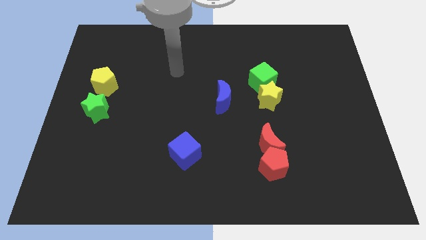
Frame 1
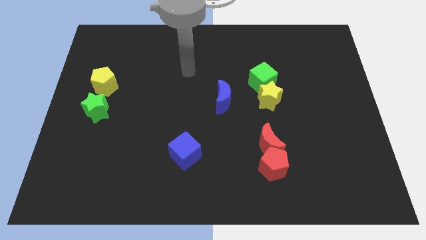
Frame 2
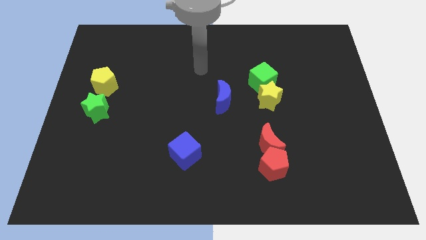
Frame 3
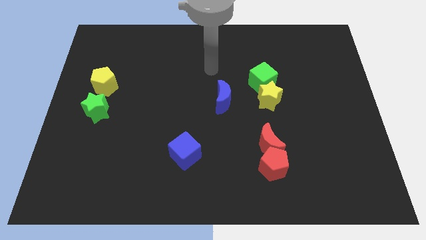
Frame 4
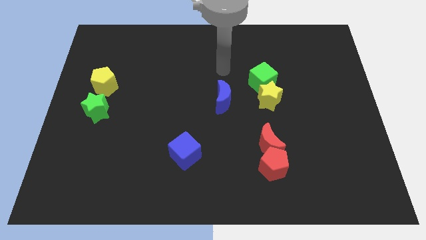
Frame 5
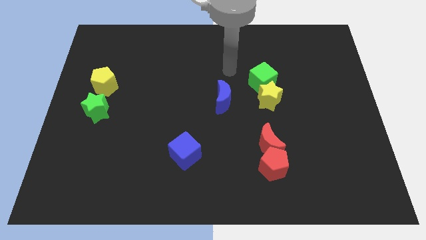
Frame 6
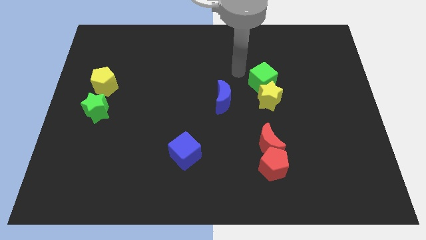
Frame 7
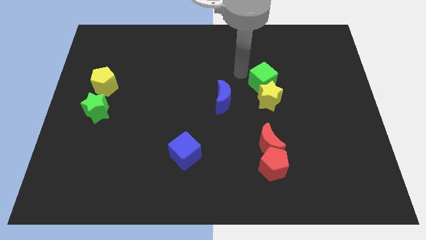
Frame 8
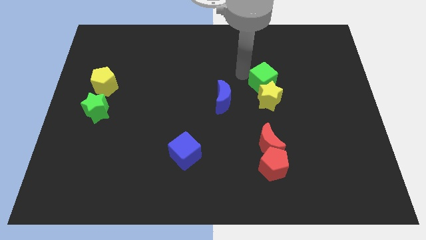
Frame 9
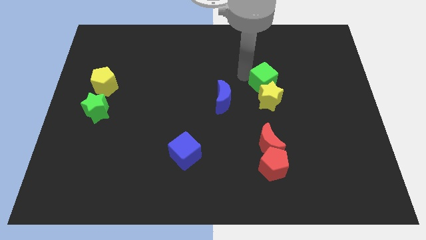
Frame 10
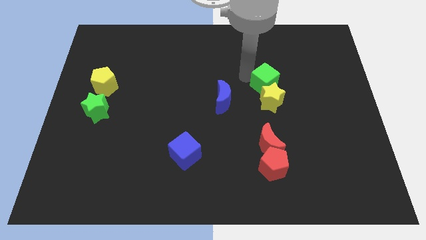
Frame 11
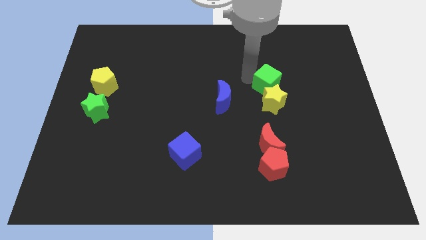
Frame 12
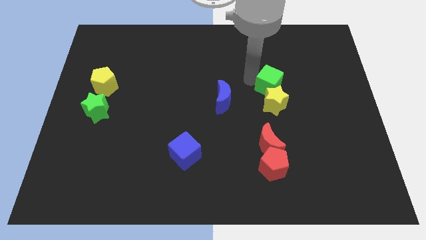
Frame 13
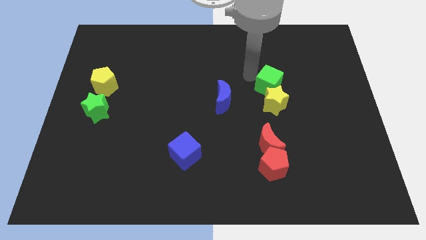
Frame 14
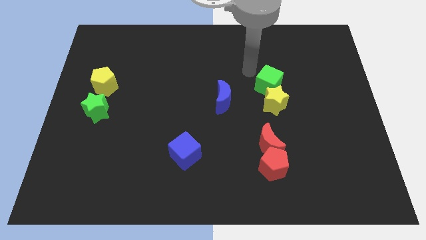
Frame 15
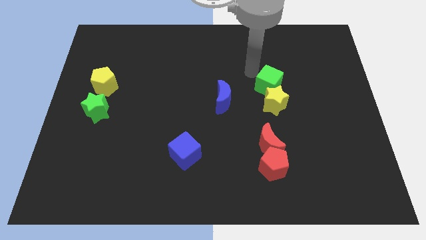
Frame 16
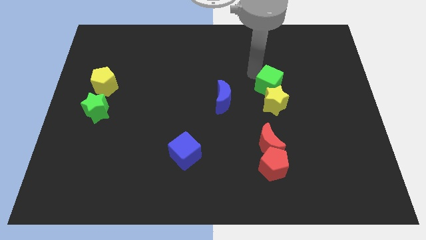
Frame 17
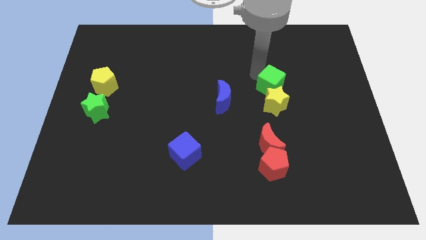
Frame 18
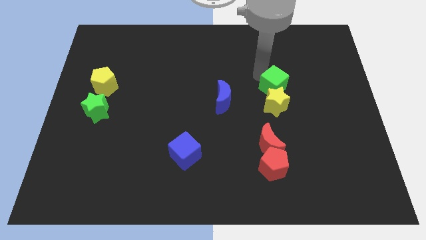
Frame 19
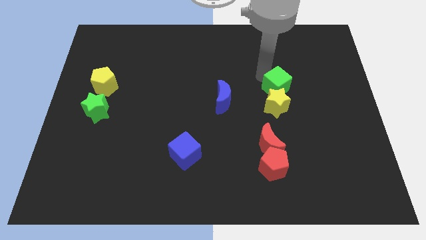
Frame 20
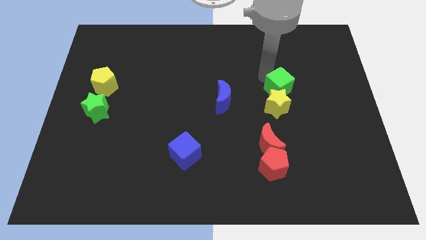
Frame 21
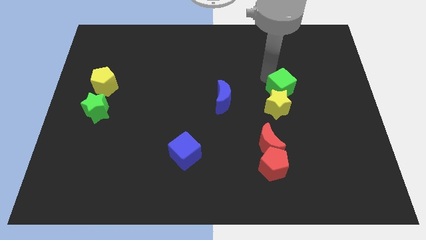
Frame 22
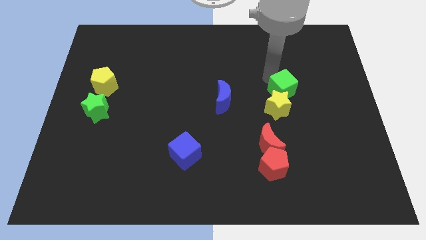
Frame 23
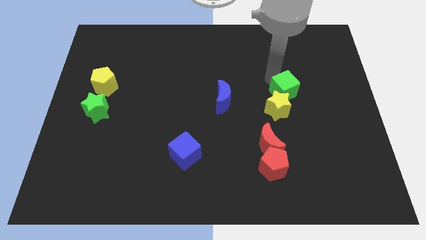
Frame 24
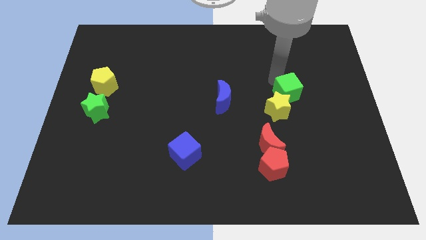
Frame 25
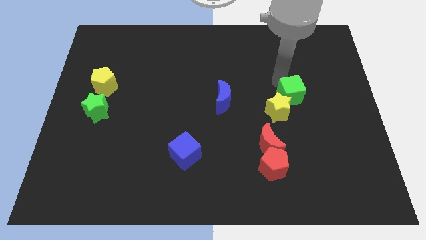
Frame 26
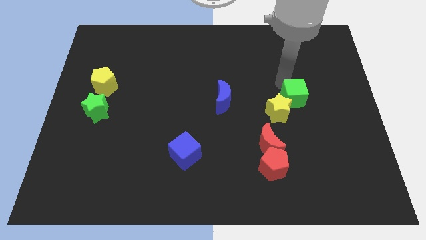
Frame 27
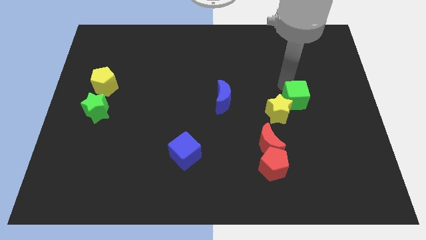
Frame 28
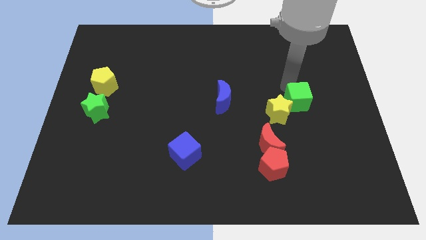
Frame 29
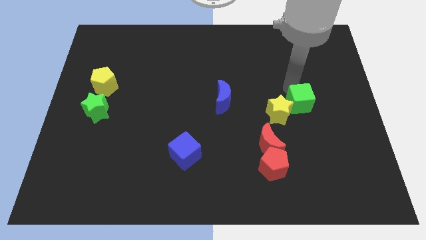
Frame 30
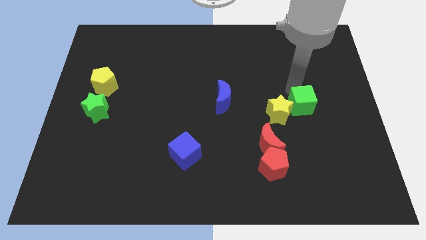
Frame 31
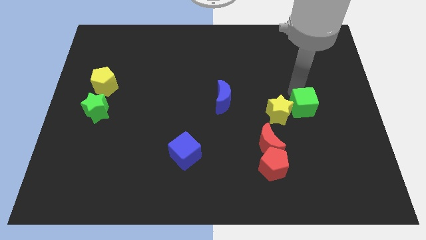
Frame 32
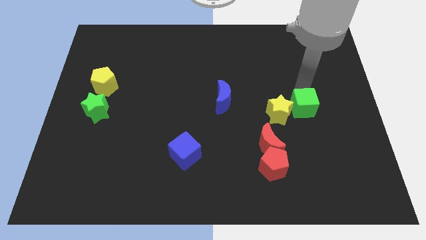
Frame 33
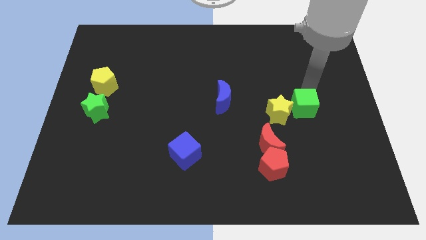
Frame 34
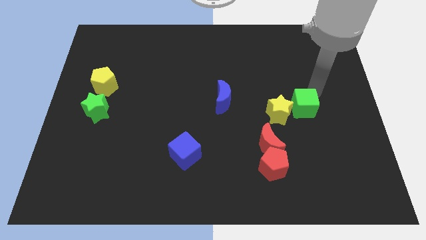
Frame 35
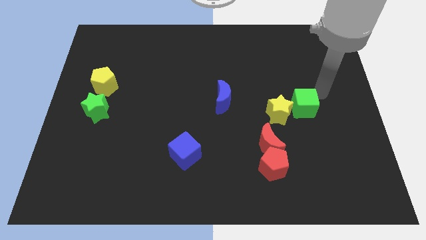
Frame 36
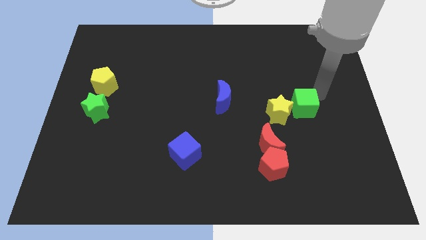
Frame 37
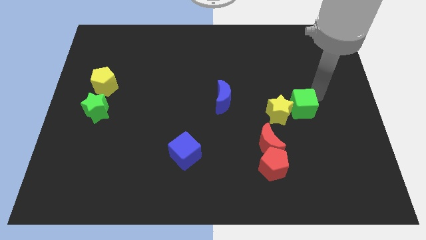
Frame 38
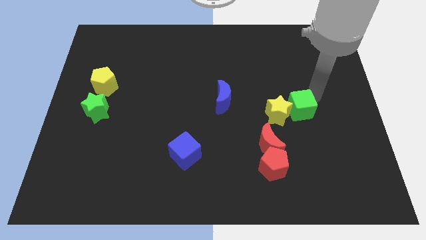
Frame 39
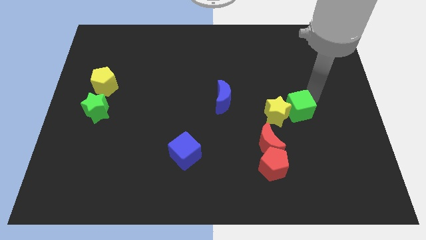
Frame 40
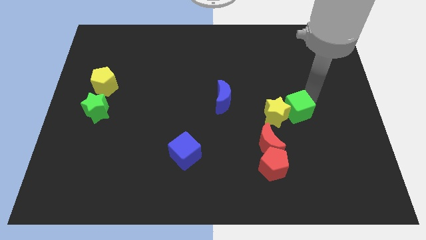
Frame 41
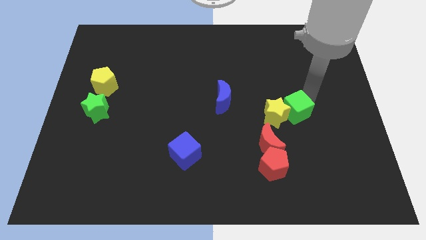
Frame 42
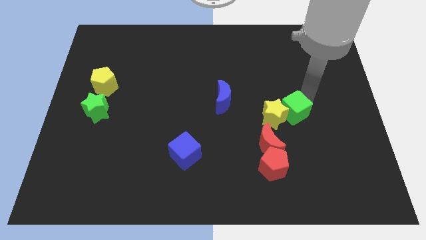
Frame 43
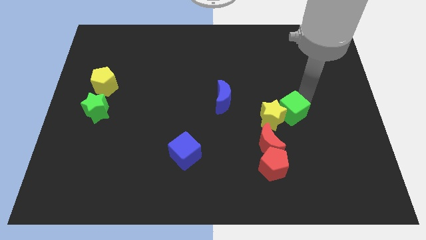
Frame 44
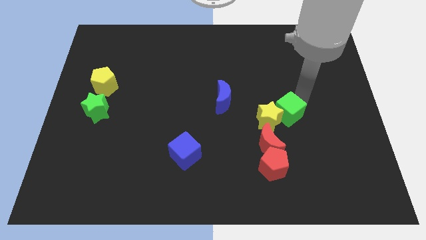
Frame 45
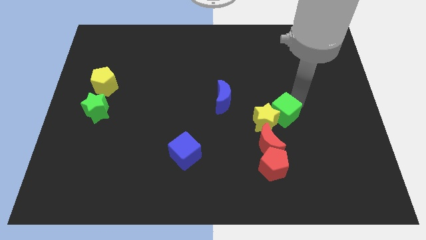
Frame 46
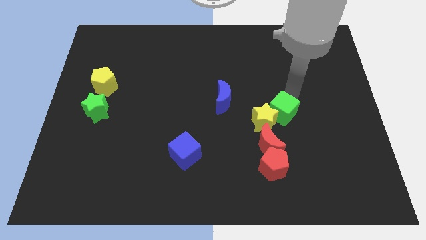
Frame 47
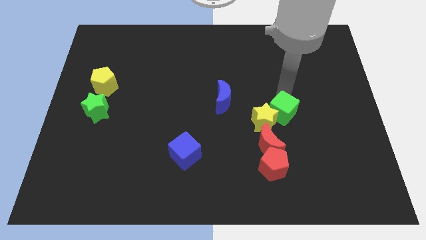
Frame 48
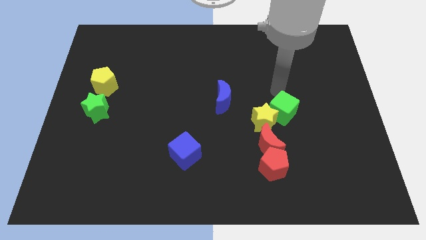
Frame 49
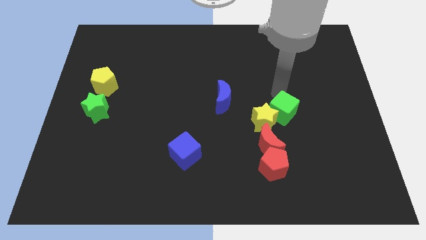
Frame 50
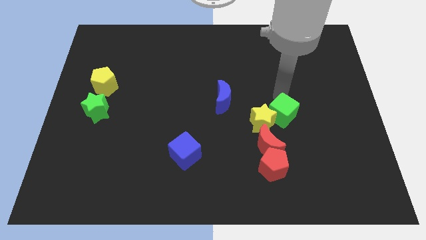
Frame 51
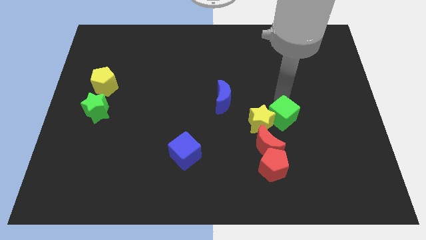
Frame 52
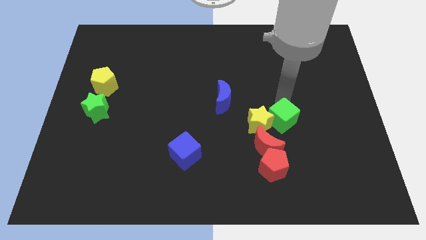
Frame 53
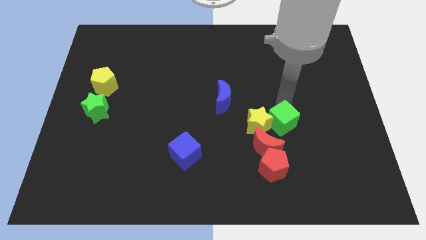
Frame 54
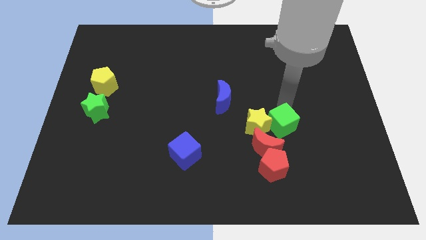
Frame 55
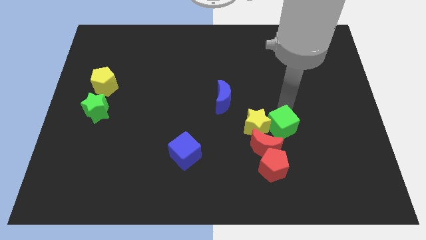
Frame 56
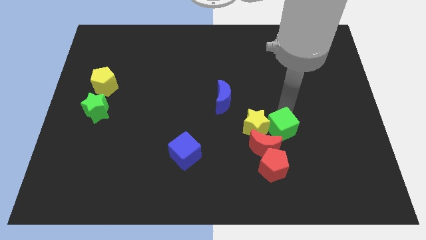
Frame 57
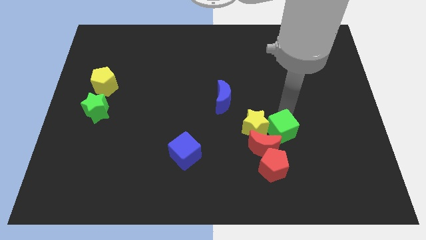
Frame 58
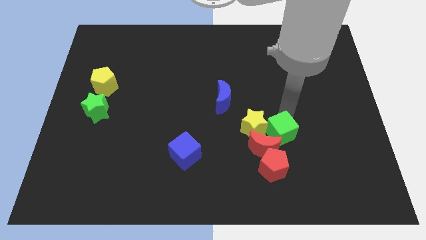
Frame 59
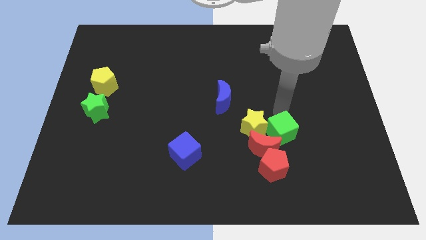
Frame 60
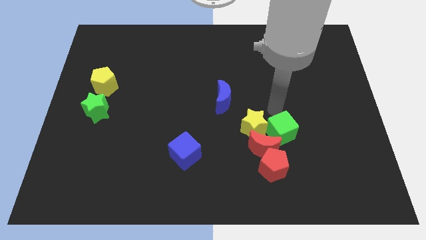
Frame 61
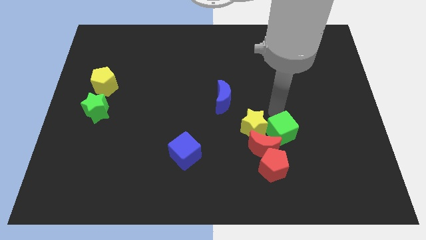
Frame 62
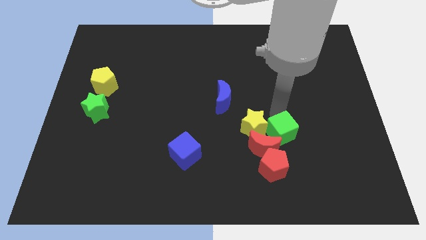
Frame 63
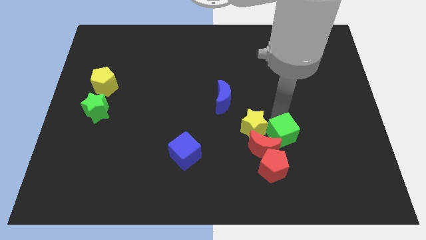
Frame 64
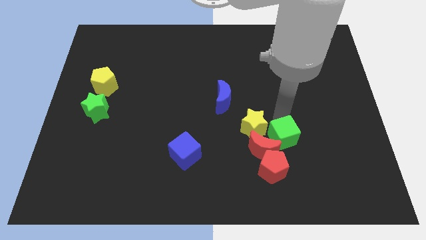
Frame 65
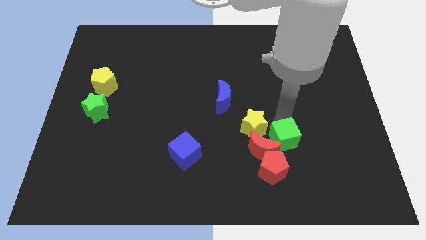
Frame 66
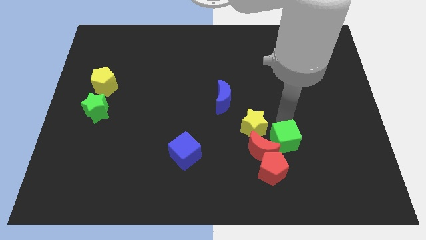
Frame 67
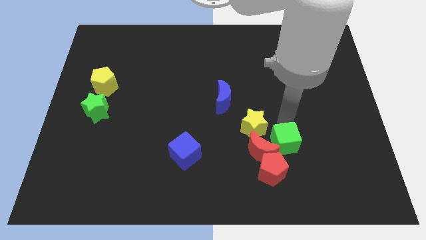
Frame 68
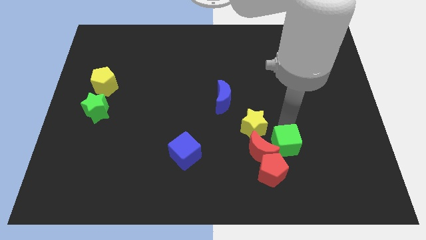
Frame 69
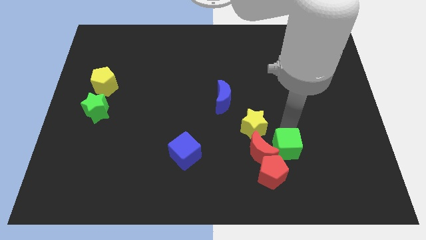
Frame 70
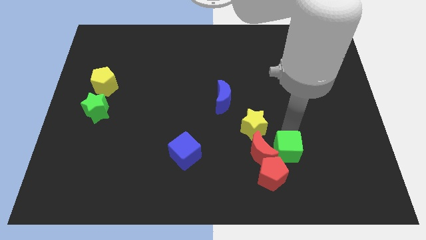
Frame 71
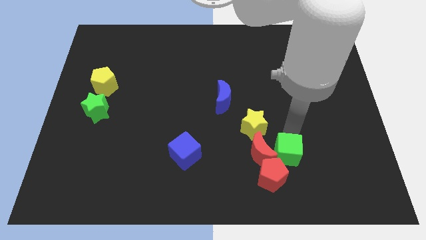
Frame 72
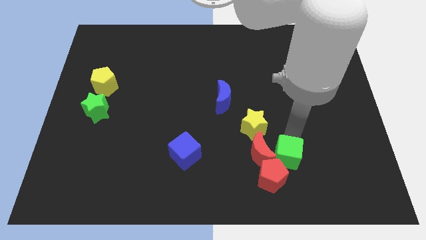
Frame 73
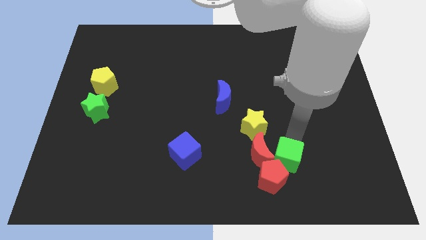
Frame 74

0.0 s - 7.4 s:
put the green cube next to the red pentagon
